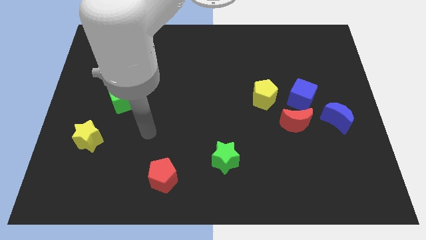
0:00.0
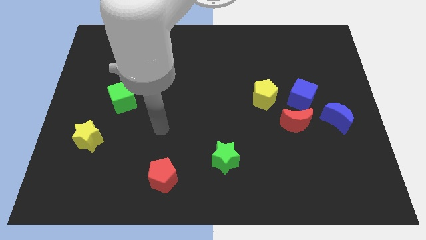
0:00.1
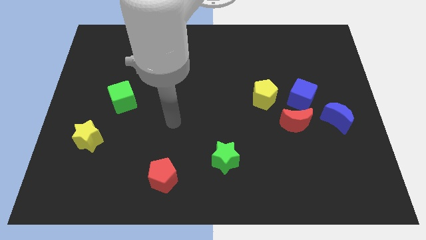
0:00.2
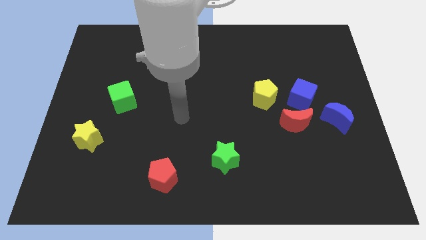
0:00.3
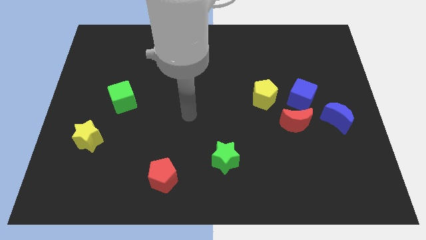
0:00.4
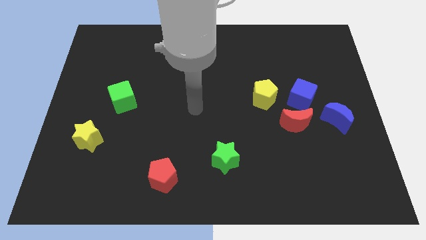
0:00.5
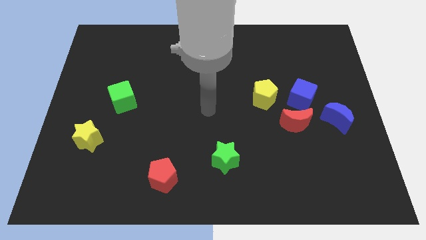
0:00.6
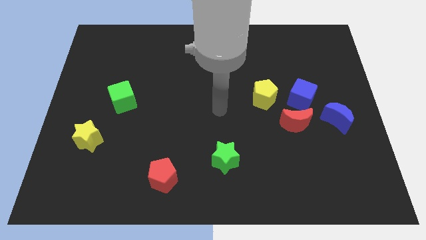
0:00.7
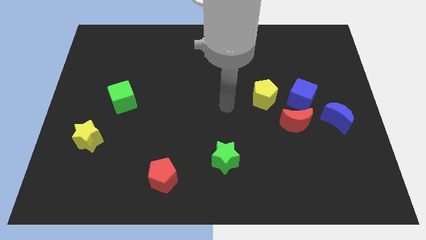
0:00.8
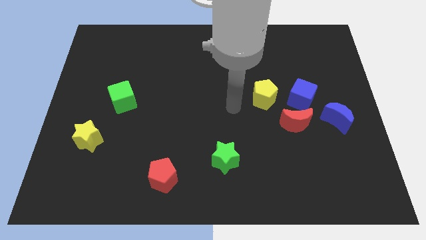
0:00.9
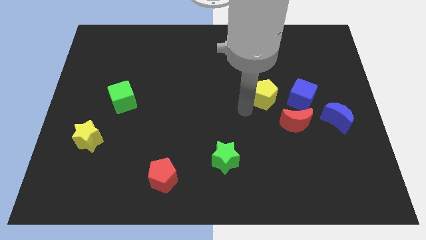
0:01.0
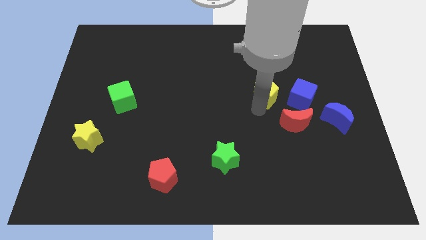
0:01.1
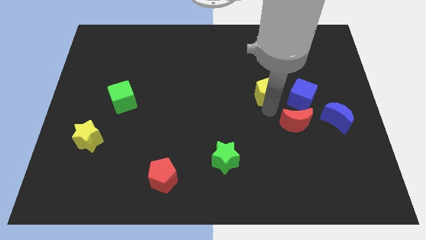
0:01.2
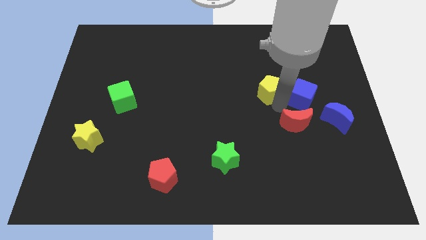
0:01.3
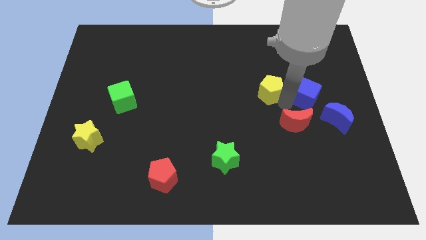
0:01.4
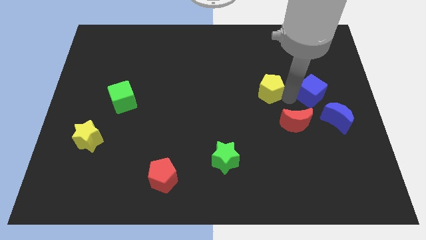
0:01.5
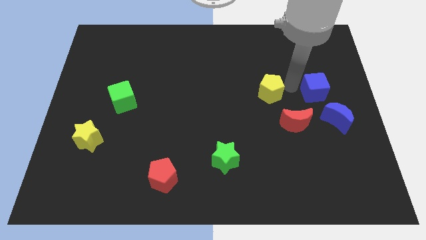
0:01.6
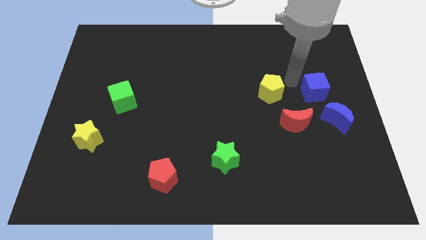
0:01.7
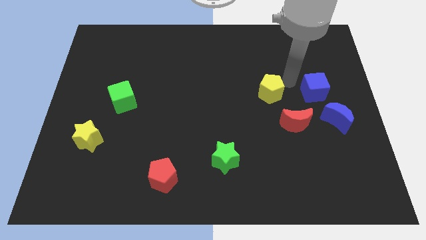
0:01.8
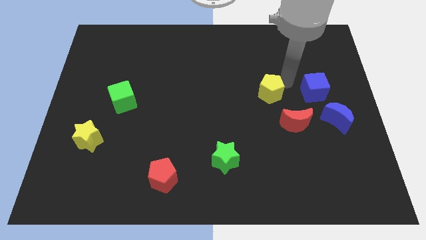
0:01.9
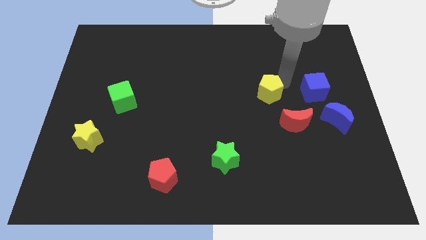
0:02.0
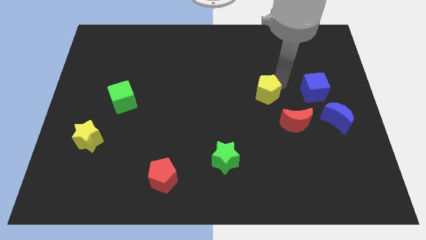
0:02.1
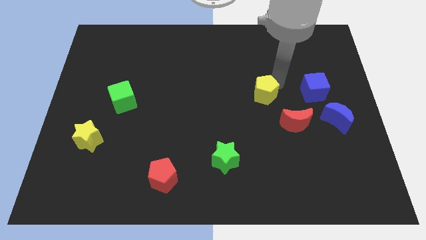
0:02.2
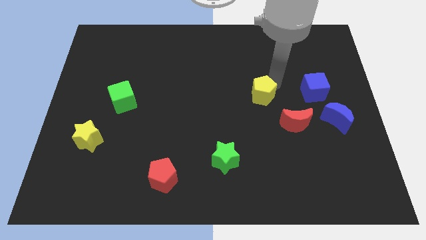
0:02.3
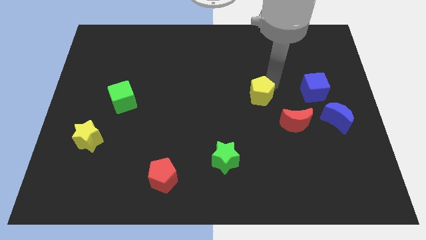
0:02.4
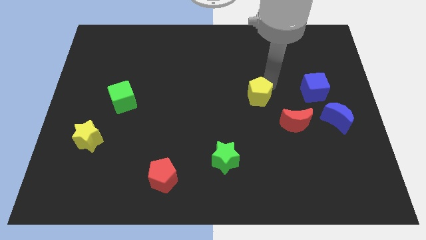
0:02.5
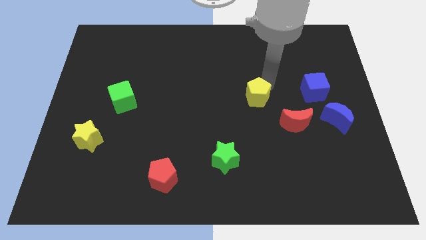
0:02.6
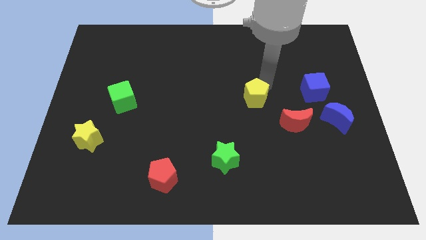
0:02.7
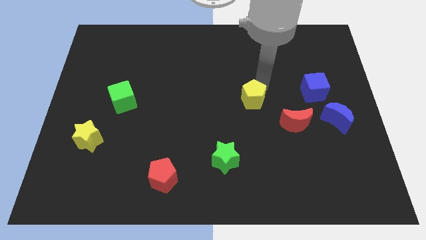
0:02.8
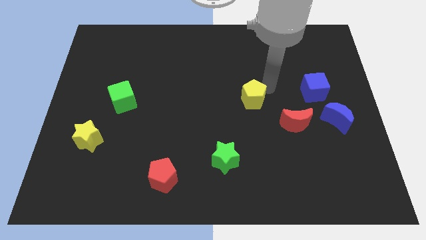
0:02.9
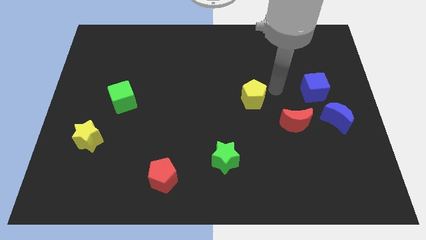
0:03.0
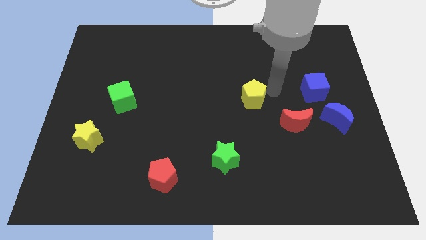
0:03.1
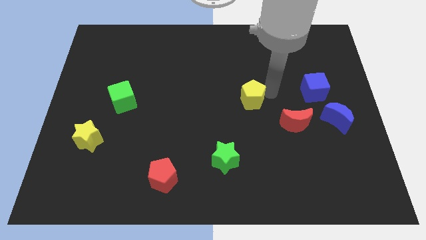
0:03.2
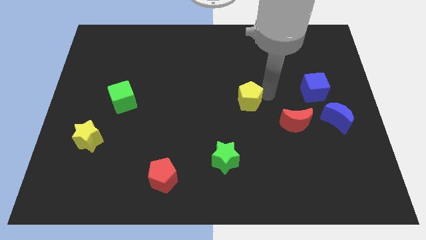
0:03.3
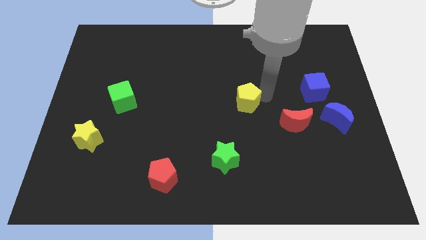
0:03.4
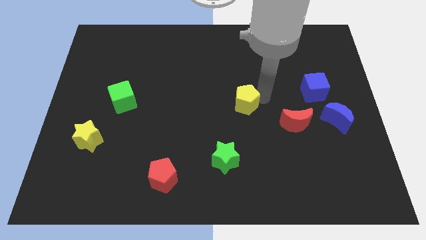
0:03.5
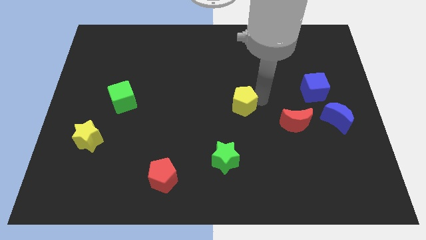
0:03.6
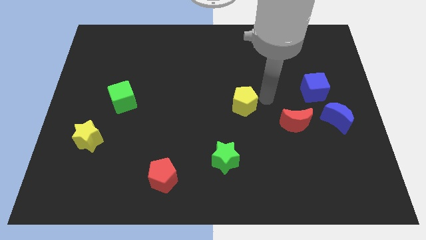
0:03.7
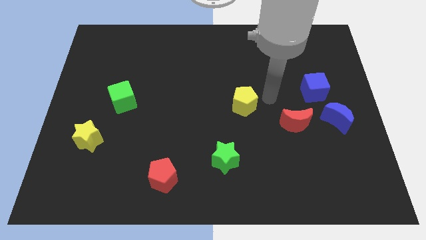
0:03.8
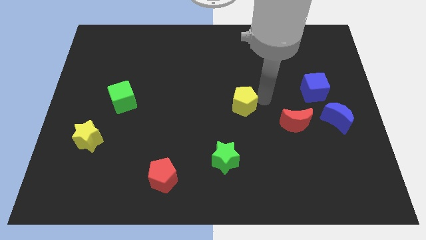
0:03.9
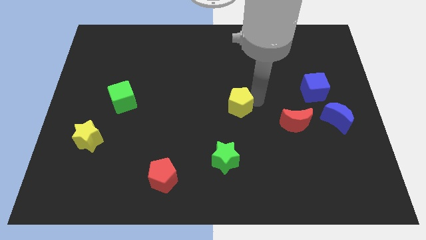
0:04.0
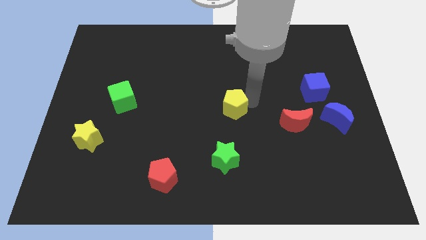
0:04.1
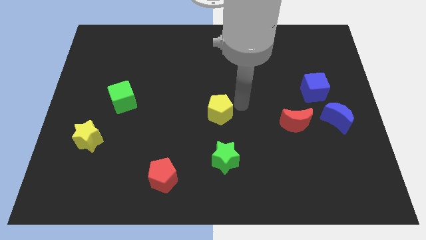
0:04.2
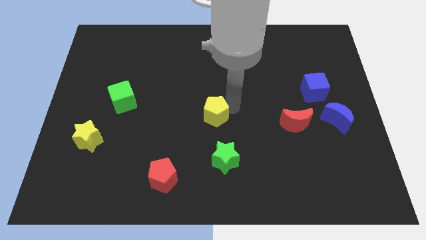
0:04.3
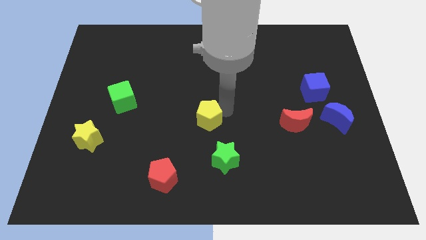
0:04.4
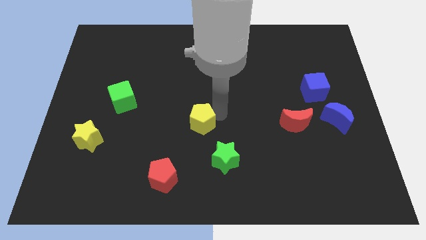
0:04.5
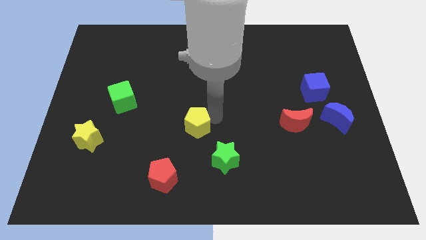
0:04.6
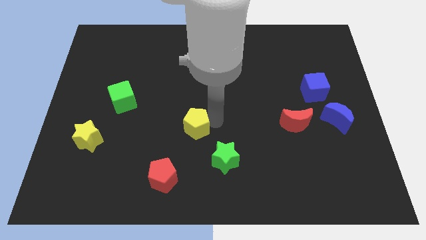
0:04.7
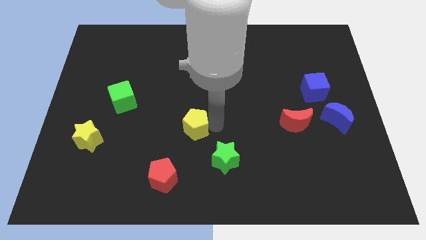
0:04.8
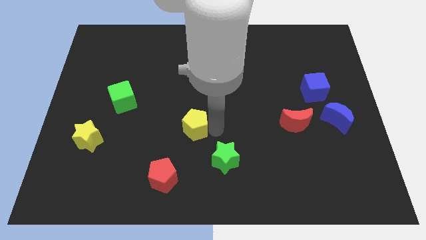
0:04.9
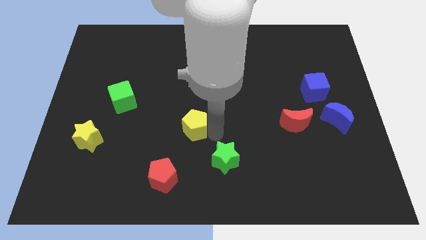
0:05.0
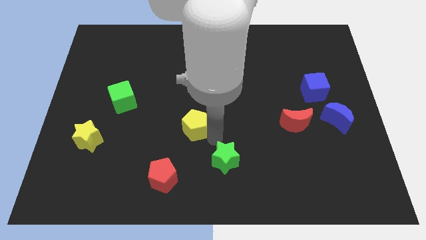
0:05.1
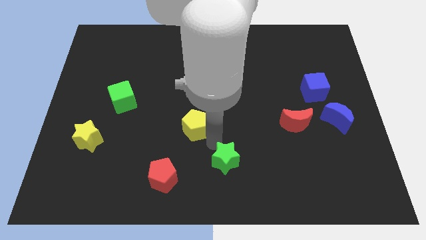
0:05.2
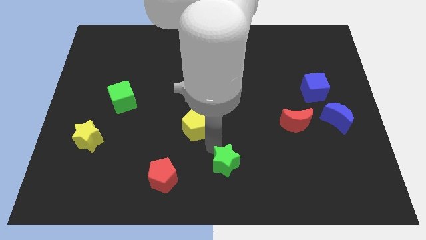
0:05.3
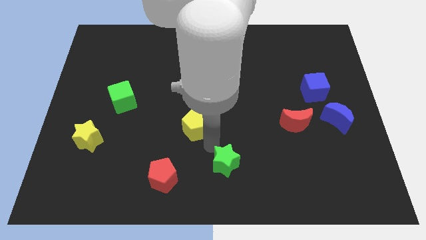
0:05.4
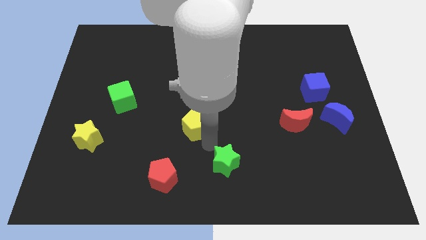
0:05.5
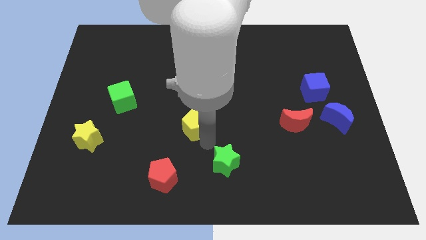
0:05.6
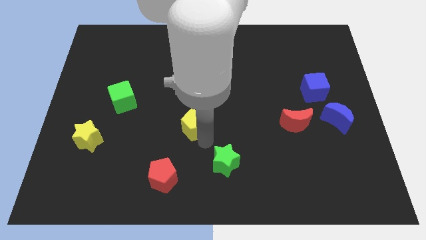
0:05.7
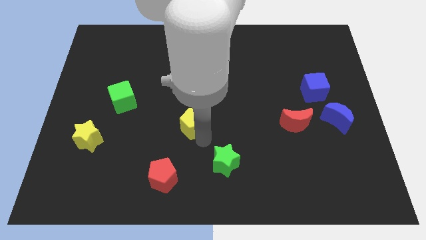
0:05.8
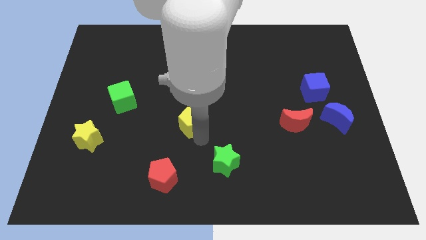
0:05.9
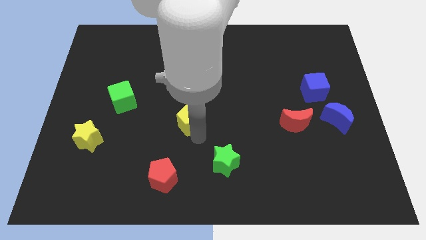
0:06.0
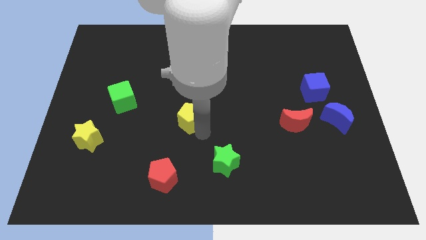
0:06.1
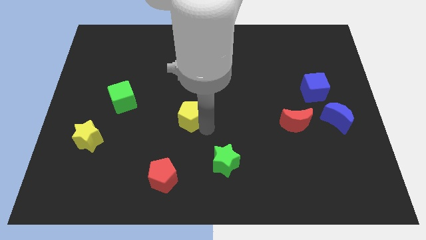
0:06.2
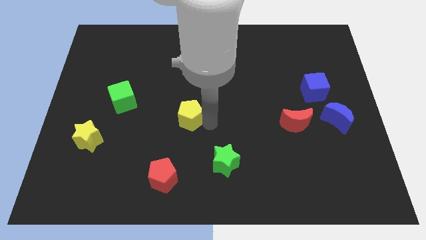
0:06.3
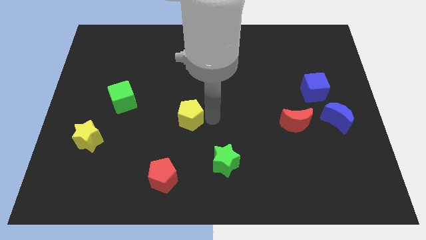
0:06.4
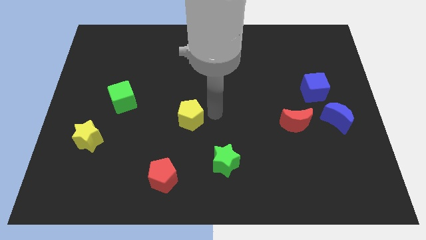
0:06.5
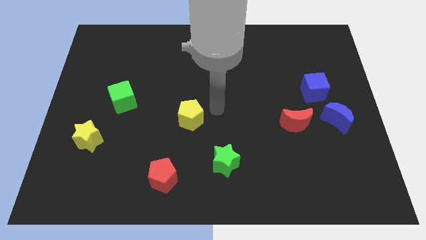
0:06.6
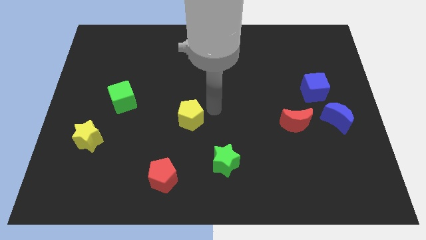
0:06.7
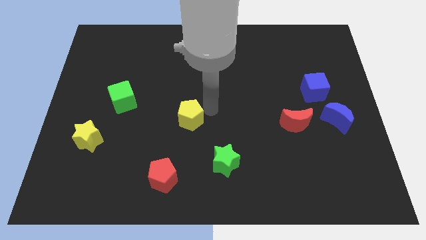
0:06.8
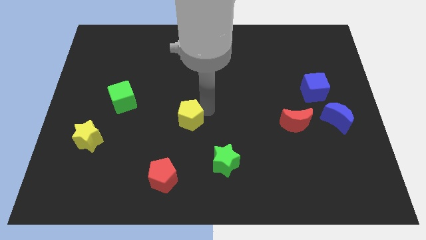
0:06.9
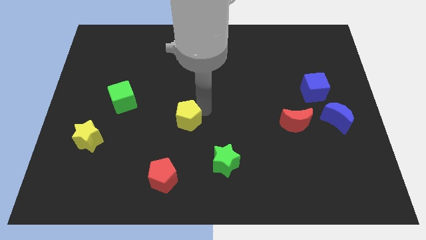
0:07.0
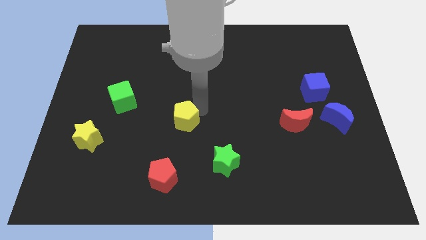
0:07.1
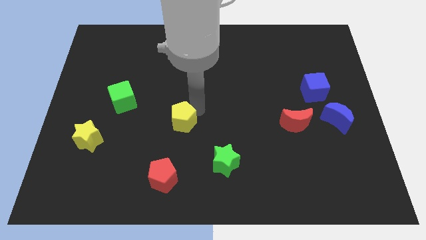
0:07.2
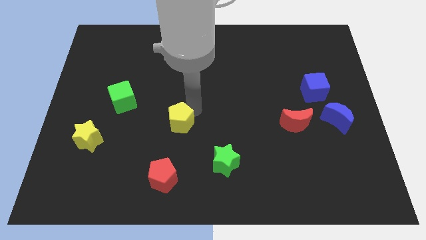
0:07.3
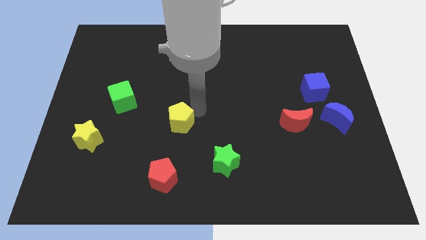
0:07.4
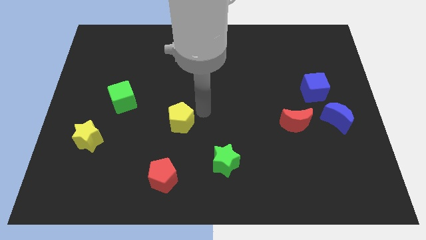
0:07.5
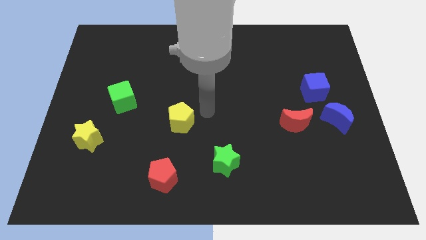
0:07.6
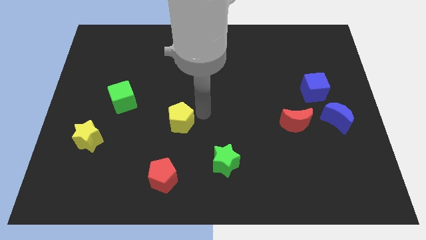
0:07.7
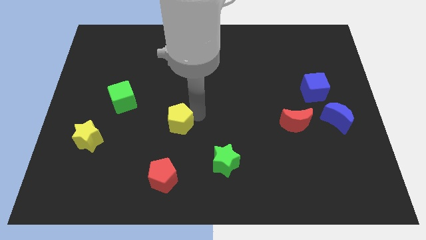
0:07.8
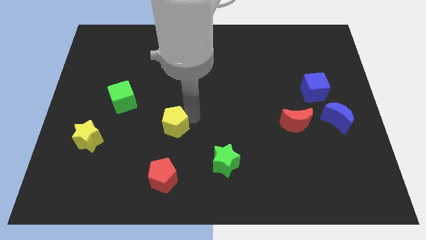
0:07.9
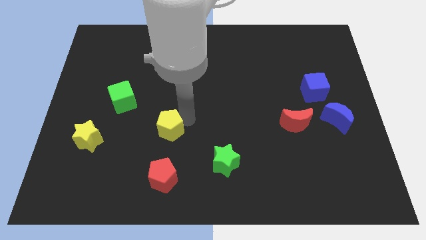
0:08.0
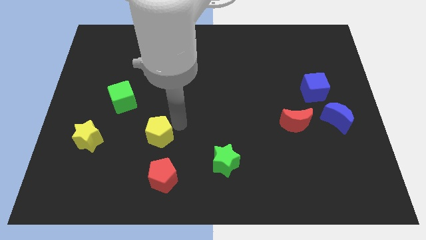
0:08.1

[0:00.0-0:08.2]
put the yellow pentagon right of the yellow star
